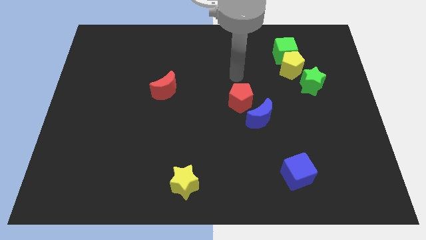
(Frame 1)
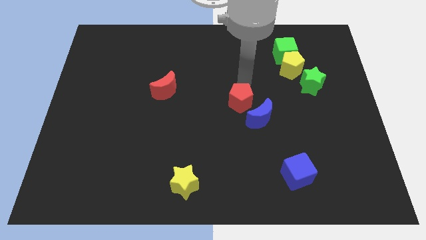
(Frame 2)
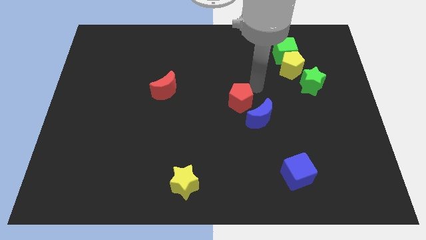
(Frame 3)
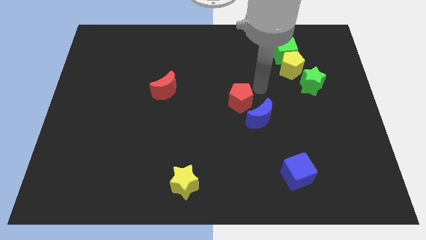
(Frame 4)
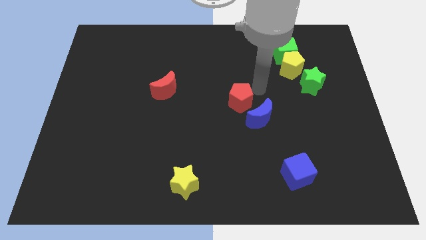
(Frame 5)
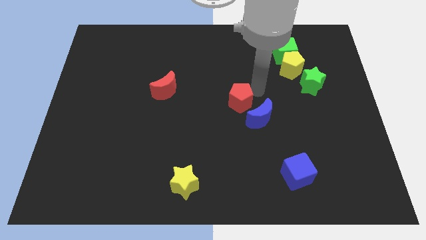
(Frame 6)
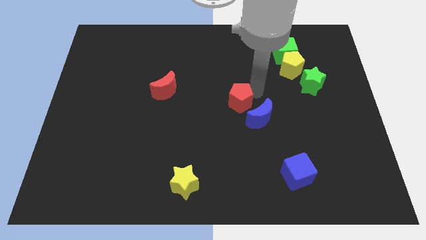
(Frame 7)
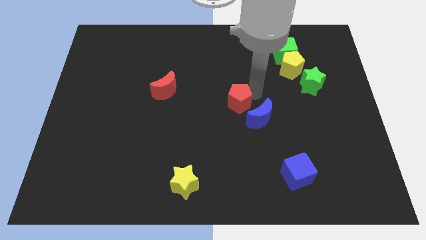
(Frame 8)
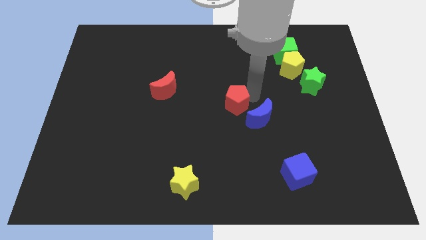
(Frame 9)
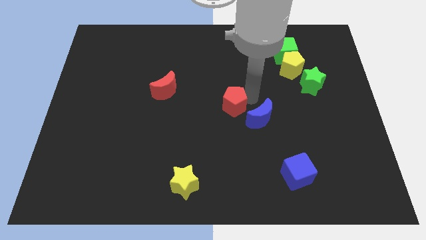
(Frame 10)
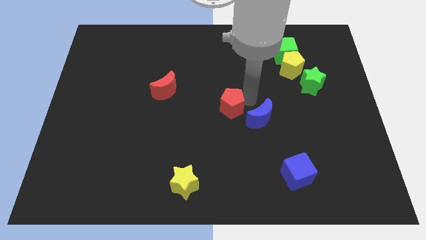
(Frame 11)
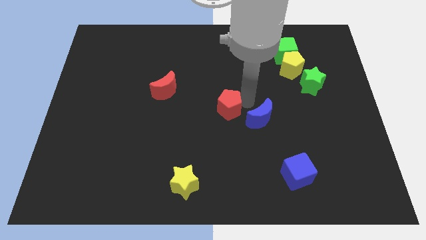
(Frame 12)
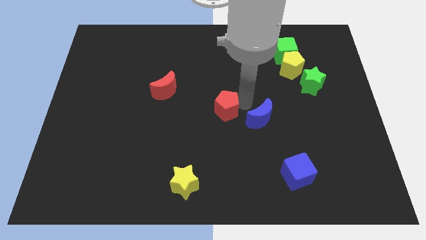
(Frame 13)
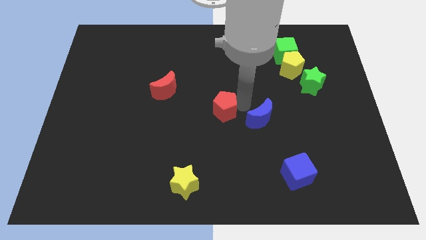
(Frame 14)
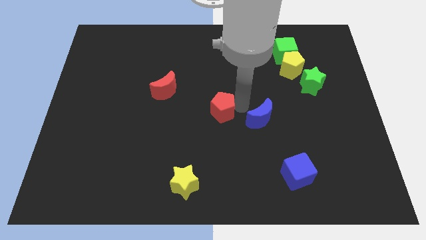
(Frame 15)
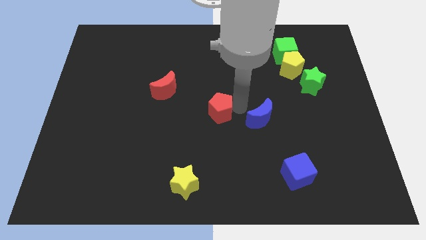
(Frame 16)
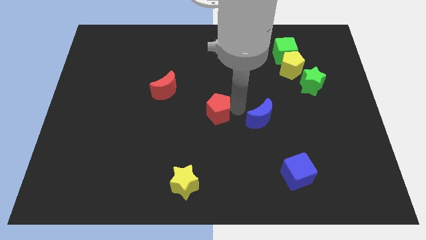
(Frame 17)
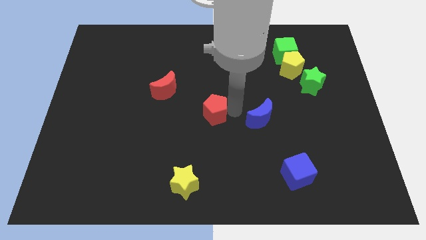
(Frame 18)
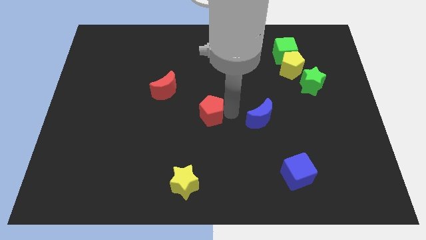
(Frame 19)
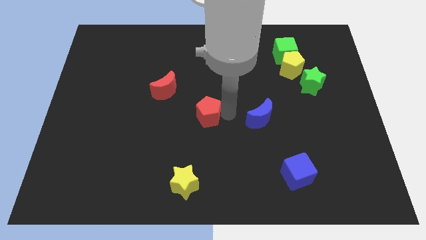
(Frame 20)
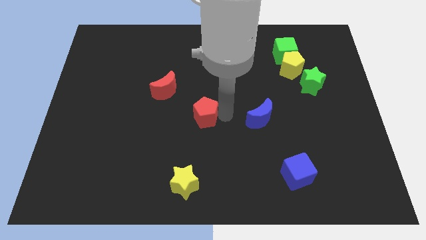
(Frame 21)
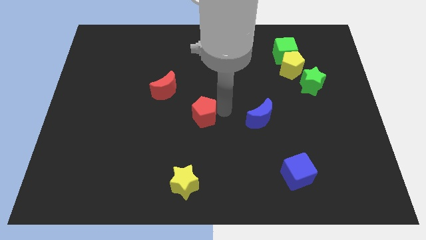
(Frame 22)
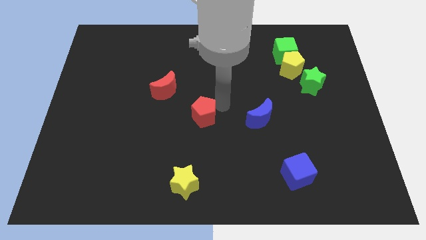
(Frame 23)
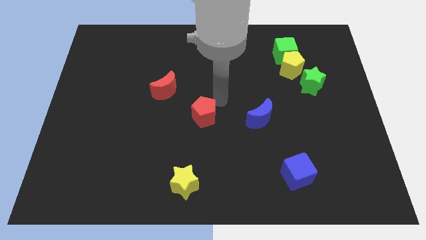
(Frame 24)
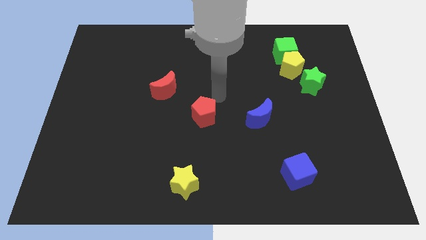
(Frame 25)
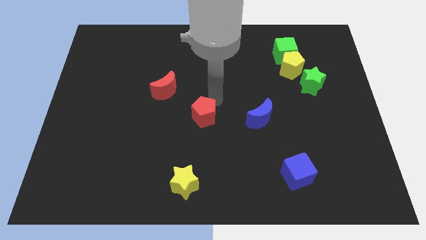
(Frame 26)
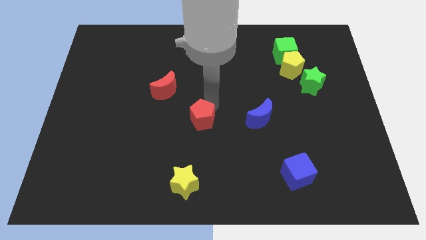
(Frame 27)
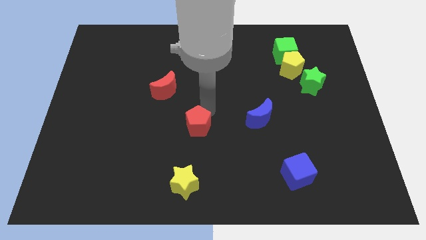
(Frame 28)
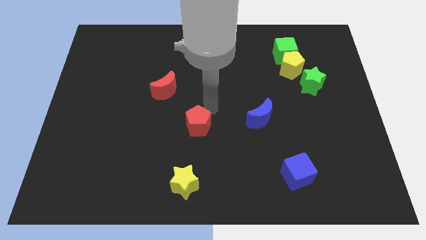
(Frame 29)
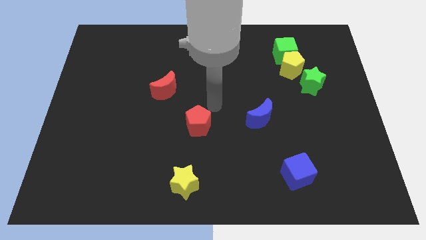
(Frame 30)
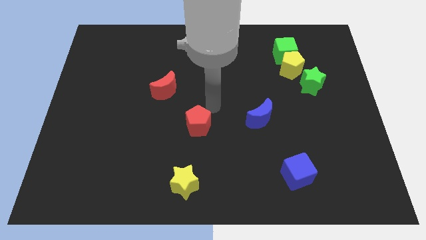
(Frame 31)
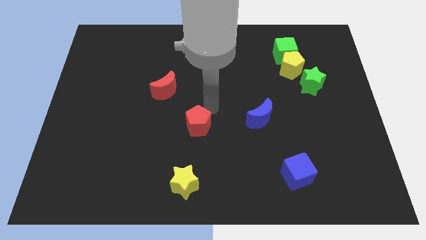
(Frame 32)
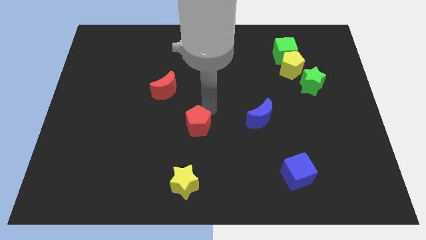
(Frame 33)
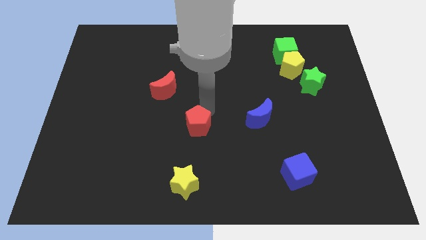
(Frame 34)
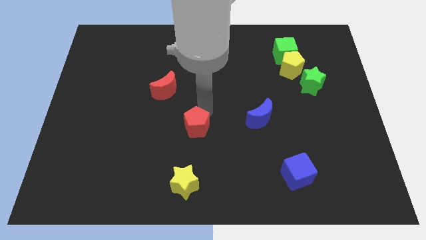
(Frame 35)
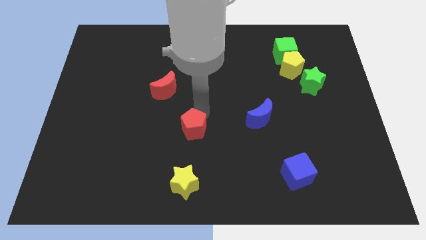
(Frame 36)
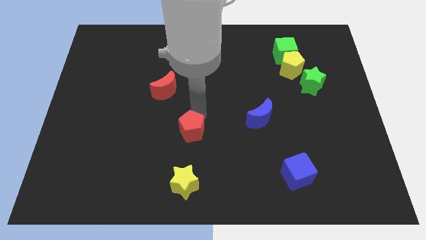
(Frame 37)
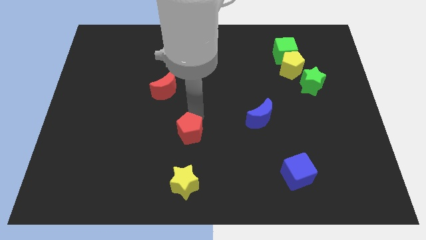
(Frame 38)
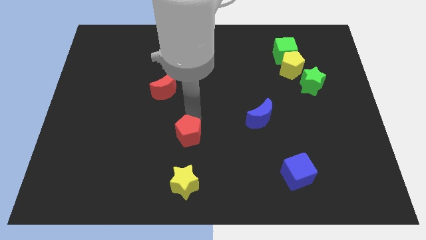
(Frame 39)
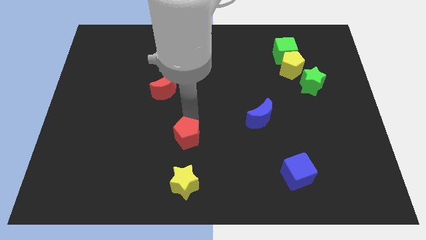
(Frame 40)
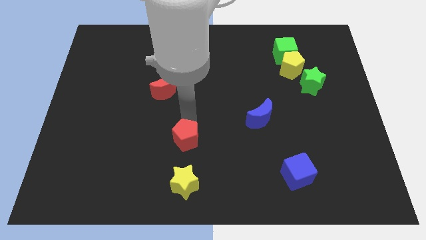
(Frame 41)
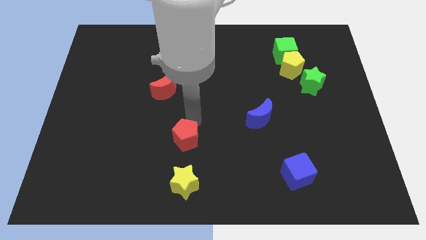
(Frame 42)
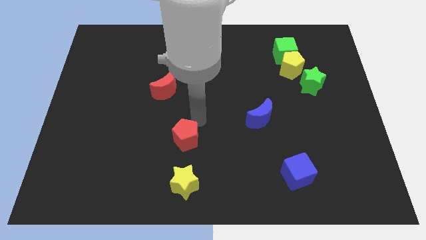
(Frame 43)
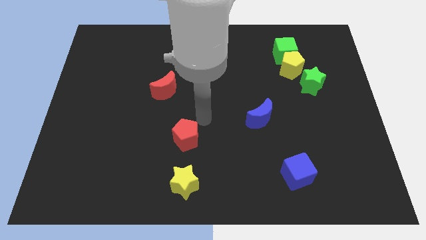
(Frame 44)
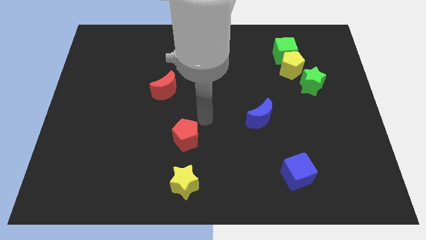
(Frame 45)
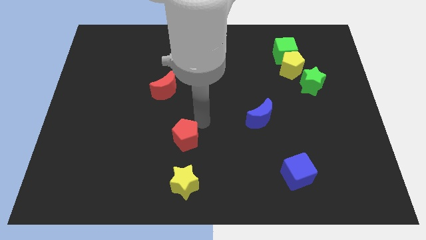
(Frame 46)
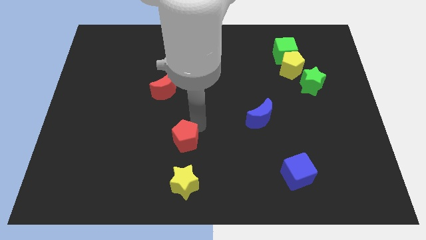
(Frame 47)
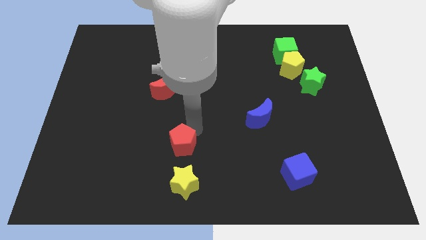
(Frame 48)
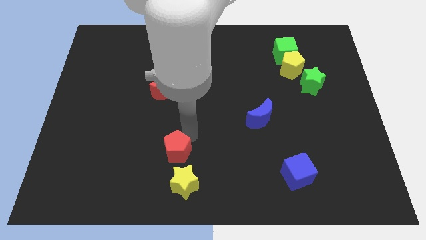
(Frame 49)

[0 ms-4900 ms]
put the red pentagon diagonally up and to the left of the yellow star

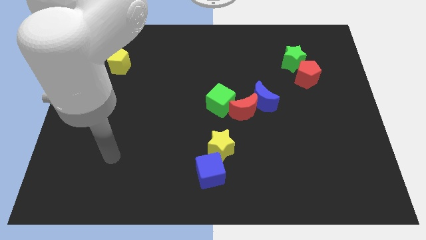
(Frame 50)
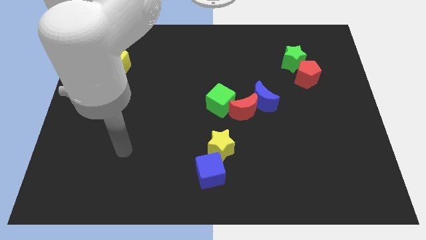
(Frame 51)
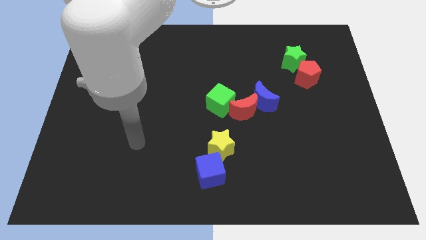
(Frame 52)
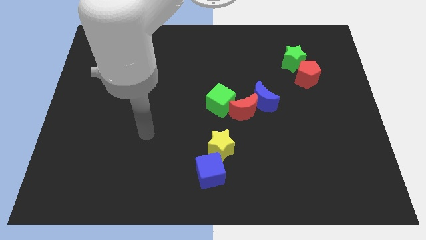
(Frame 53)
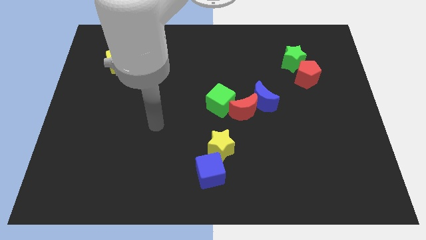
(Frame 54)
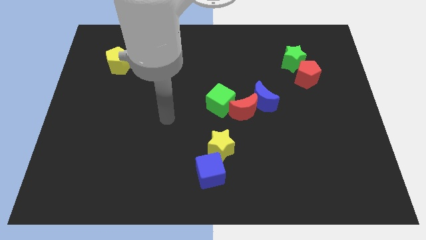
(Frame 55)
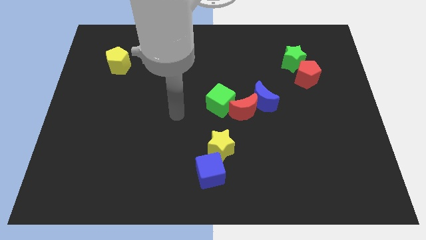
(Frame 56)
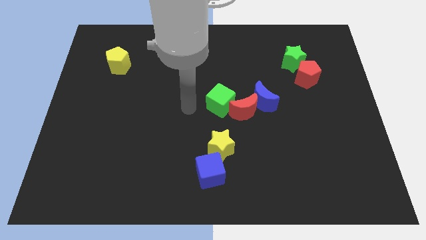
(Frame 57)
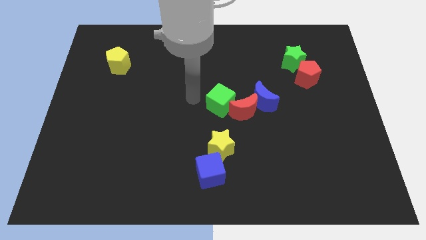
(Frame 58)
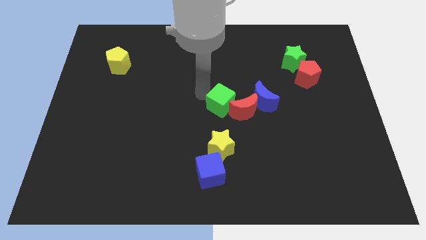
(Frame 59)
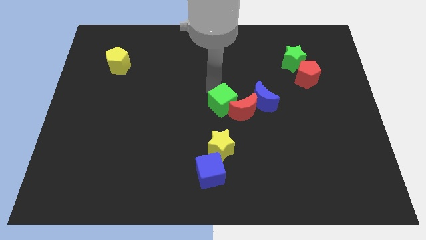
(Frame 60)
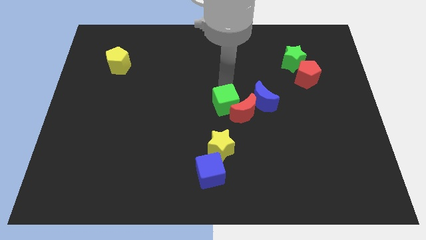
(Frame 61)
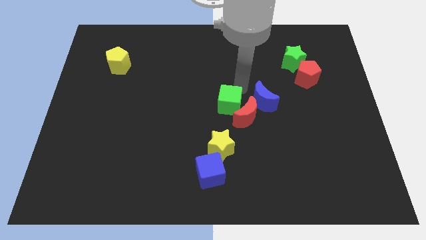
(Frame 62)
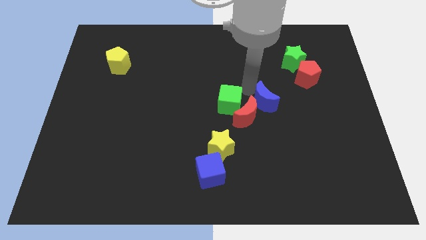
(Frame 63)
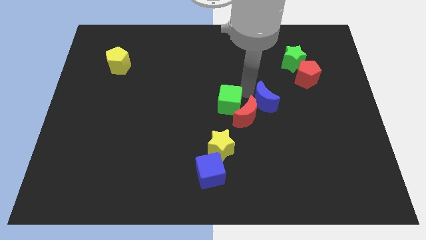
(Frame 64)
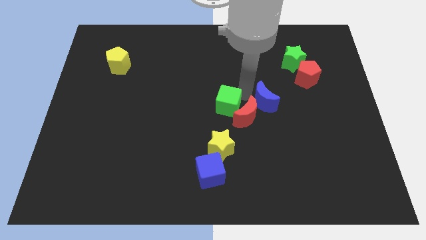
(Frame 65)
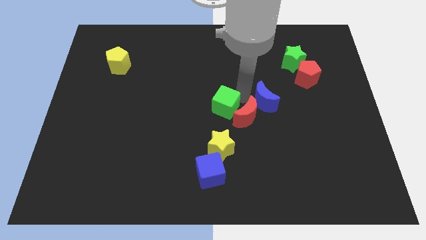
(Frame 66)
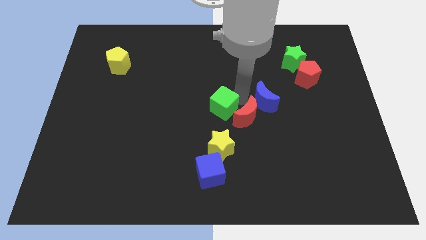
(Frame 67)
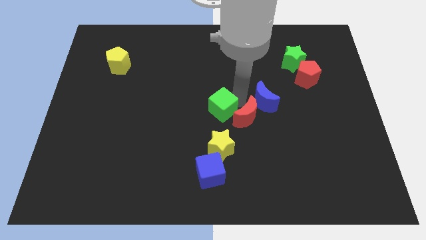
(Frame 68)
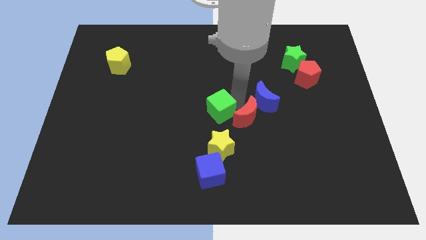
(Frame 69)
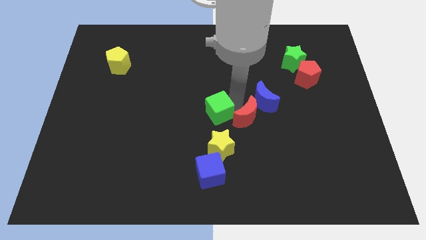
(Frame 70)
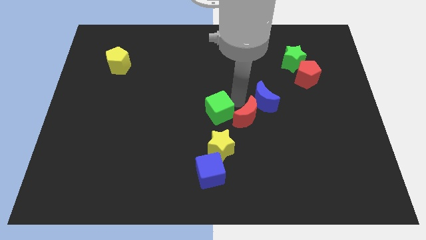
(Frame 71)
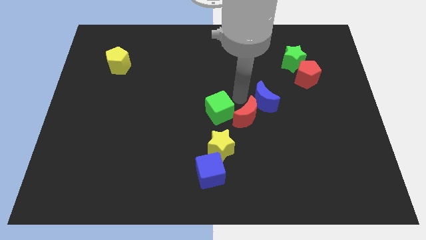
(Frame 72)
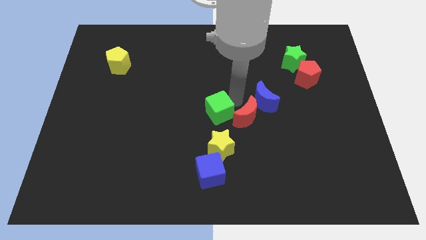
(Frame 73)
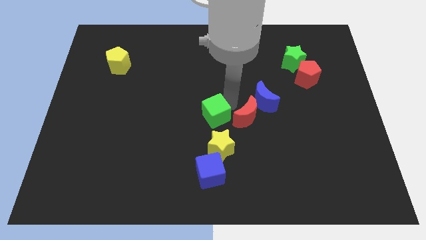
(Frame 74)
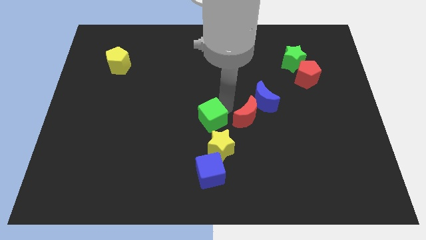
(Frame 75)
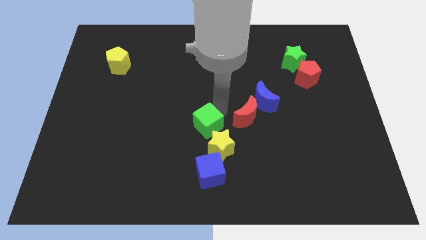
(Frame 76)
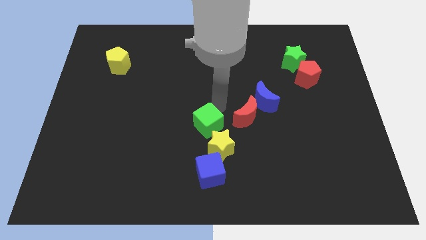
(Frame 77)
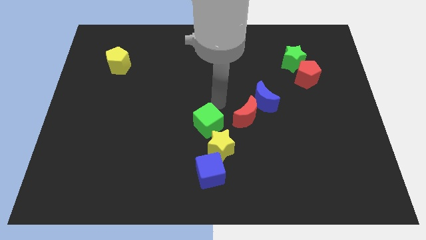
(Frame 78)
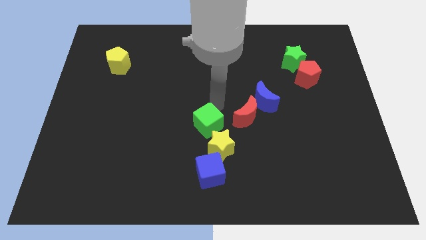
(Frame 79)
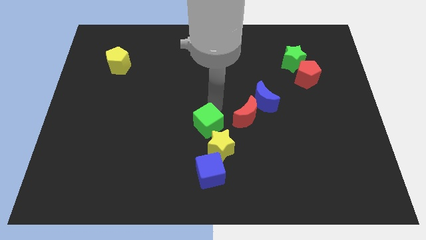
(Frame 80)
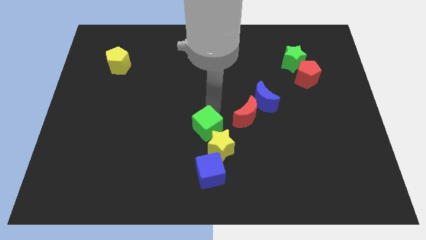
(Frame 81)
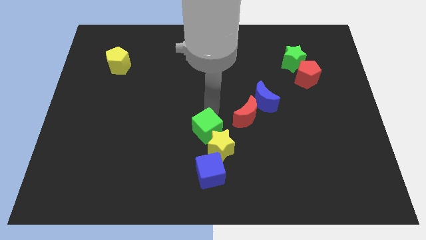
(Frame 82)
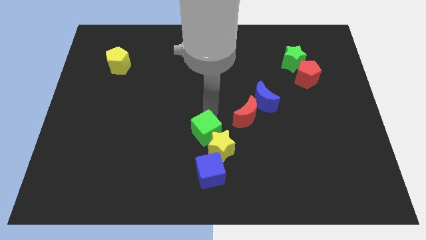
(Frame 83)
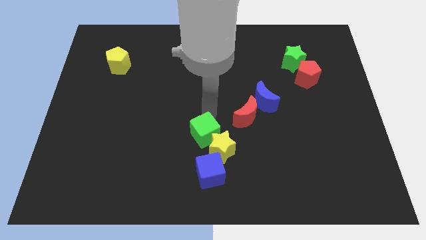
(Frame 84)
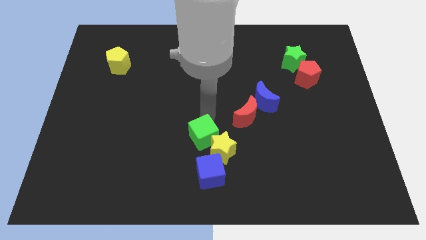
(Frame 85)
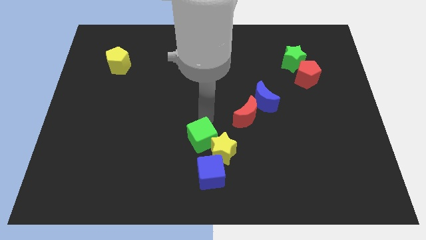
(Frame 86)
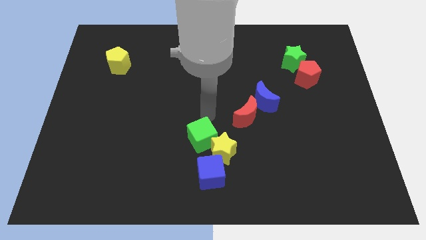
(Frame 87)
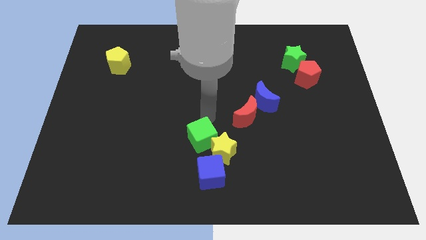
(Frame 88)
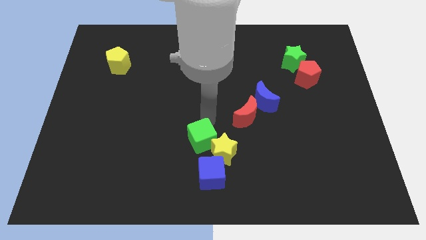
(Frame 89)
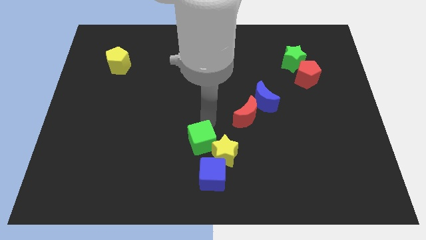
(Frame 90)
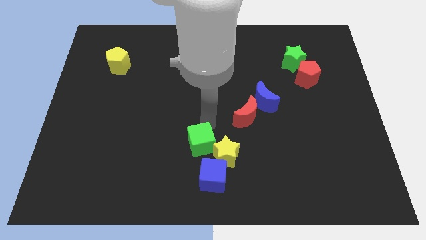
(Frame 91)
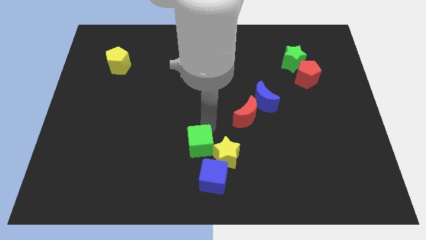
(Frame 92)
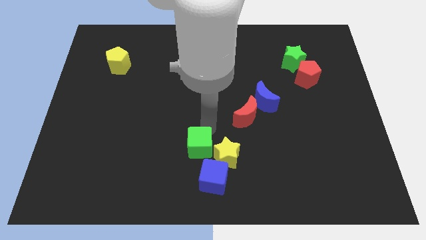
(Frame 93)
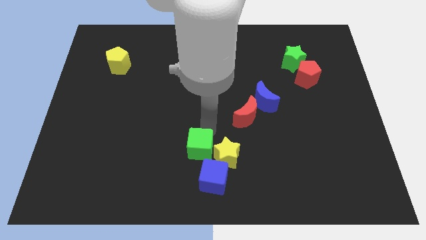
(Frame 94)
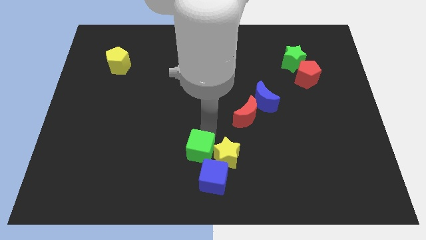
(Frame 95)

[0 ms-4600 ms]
move the green cube diagonally down and to the left of the yellow star
